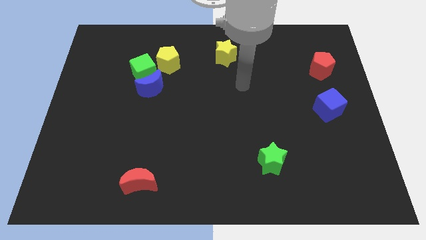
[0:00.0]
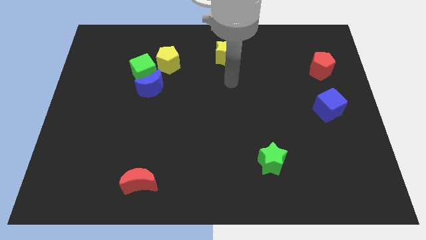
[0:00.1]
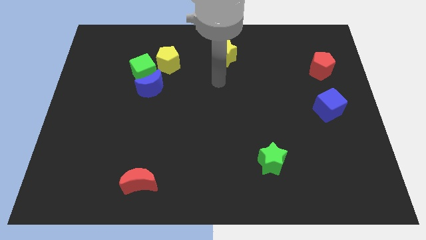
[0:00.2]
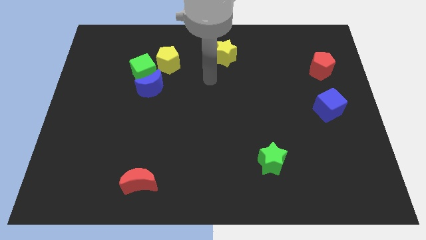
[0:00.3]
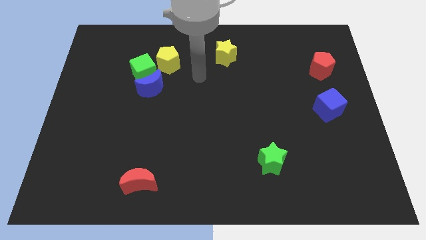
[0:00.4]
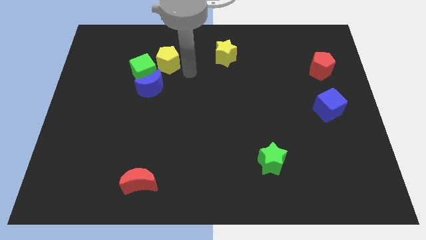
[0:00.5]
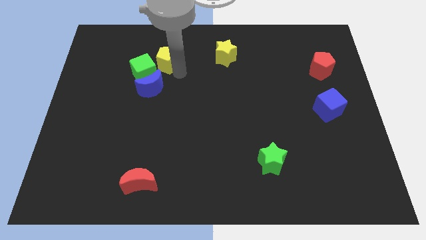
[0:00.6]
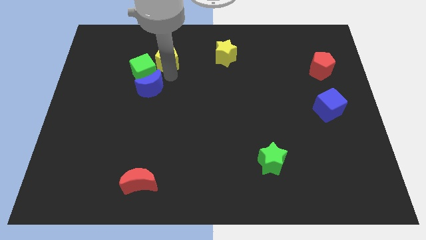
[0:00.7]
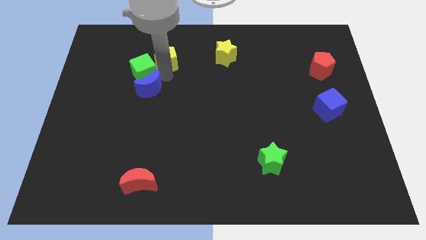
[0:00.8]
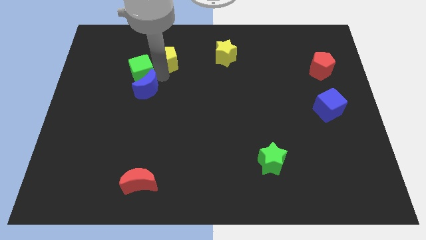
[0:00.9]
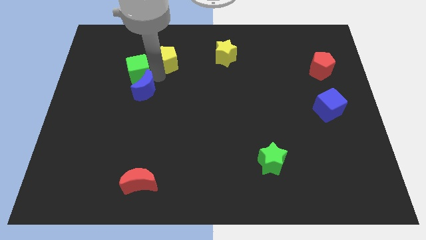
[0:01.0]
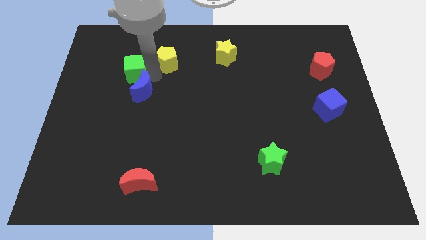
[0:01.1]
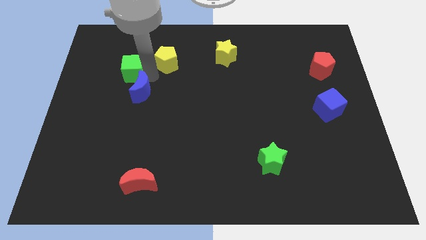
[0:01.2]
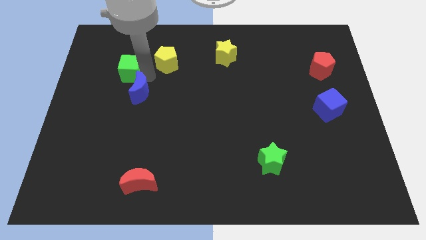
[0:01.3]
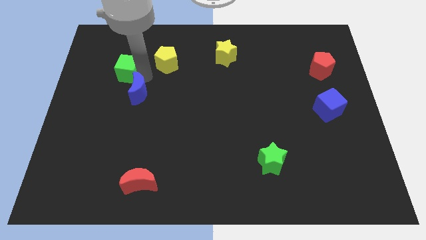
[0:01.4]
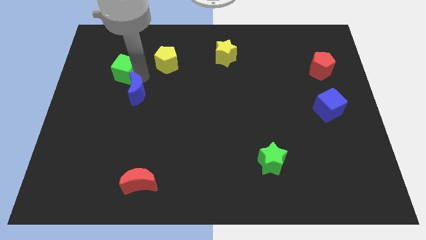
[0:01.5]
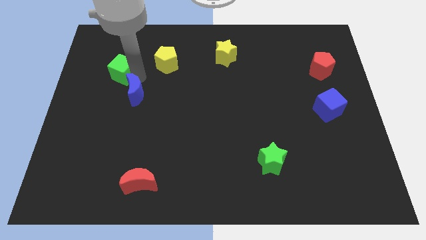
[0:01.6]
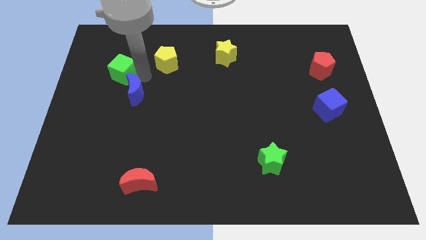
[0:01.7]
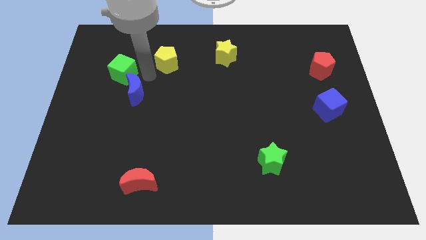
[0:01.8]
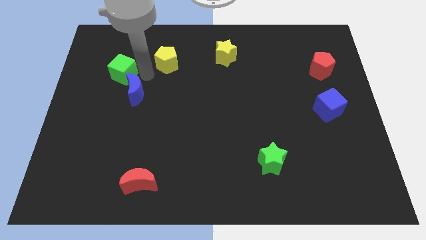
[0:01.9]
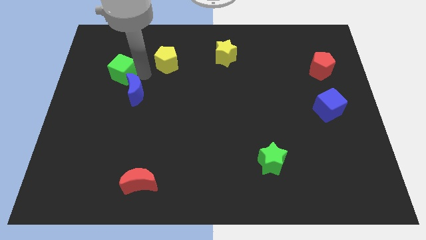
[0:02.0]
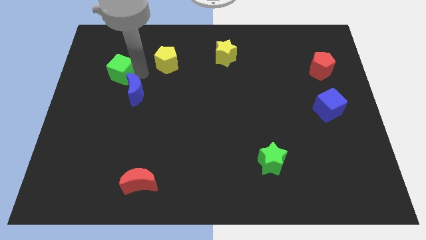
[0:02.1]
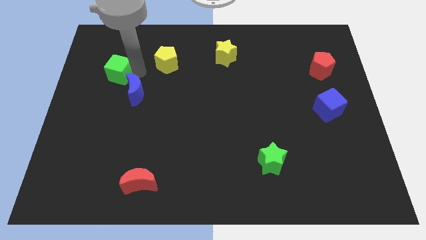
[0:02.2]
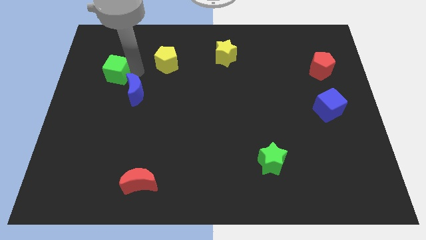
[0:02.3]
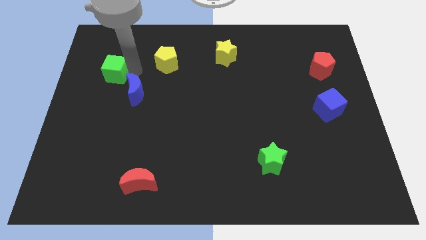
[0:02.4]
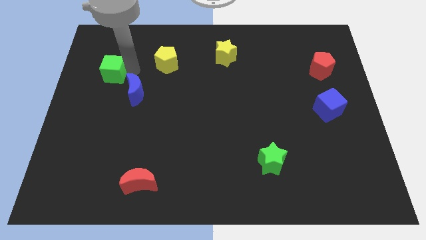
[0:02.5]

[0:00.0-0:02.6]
pull the green cube apart from the blue moon and yellow pentagon

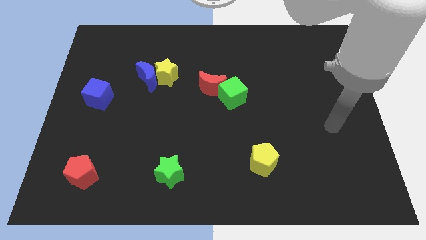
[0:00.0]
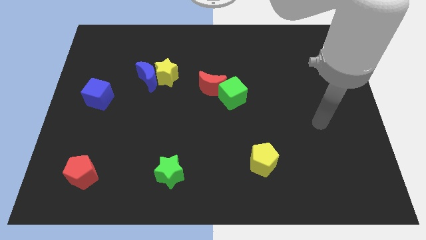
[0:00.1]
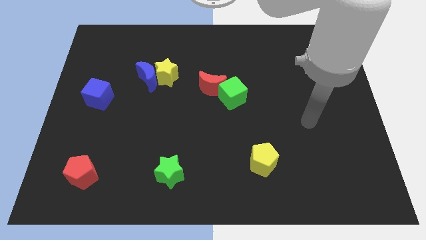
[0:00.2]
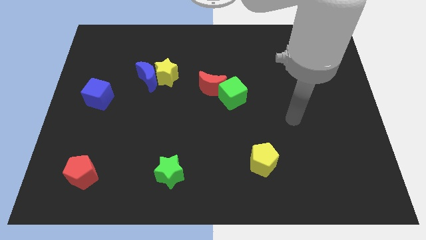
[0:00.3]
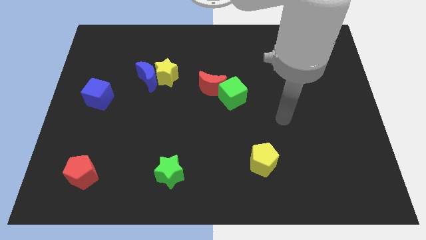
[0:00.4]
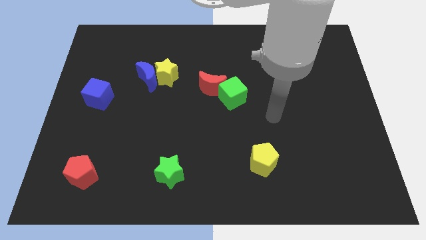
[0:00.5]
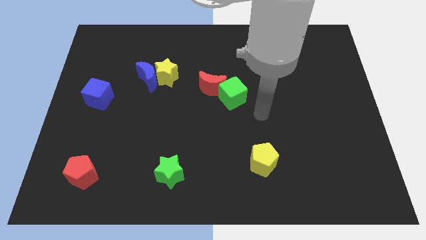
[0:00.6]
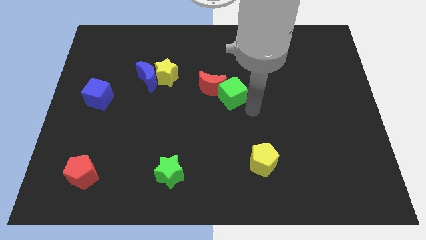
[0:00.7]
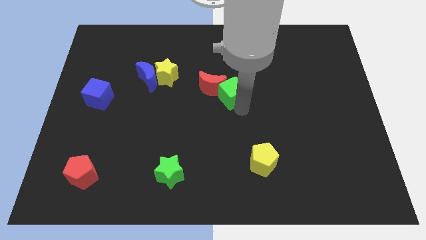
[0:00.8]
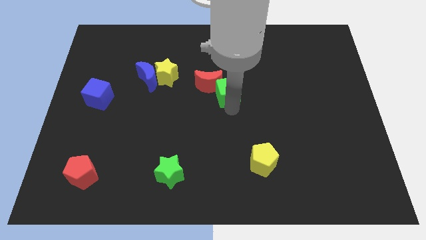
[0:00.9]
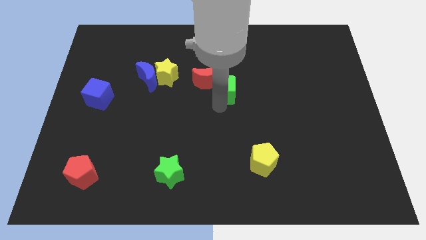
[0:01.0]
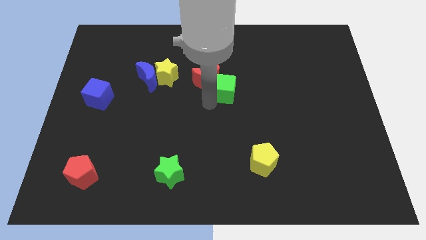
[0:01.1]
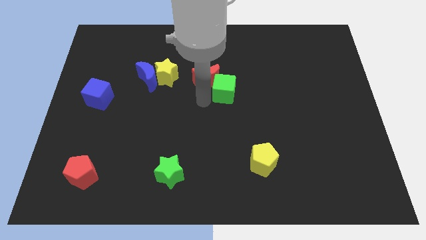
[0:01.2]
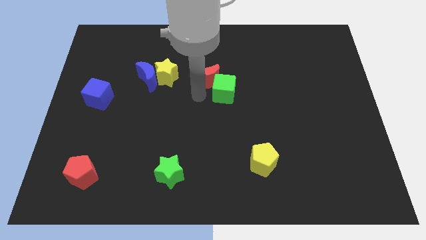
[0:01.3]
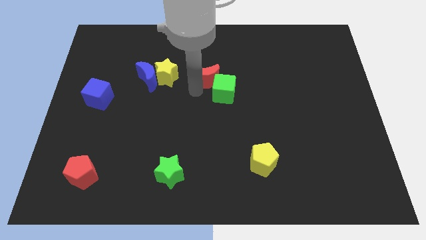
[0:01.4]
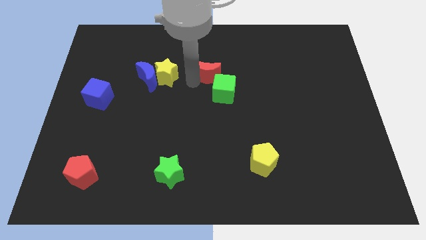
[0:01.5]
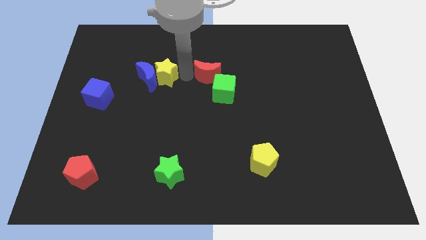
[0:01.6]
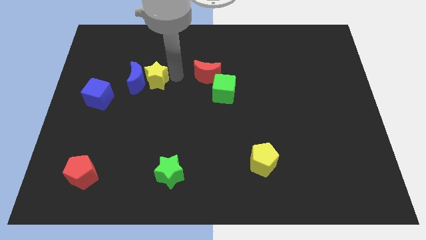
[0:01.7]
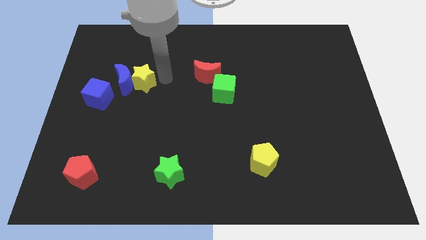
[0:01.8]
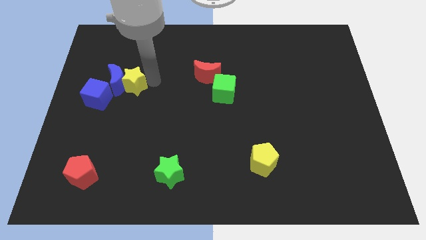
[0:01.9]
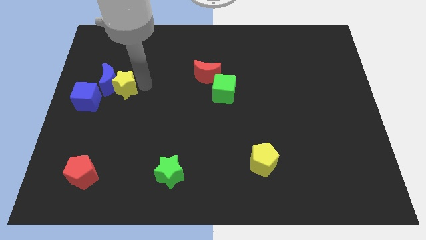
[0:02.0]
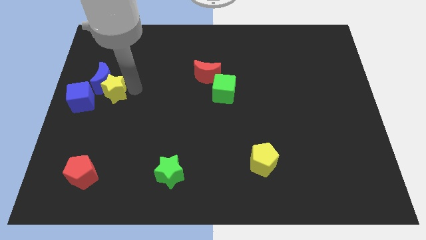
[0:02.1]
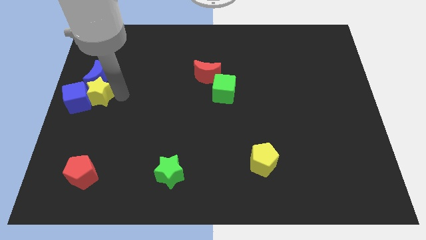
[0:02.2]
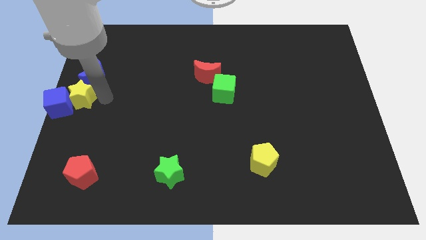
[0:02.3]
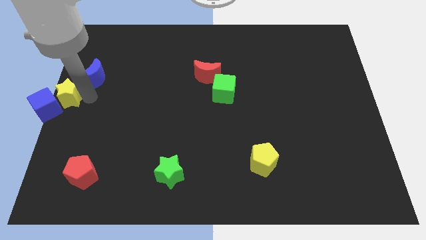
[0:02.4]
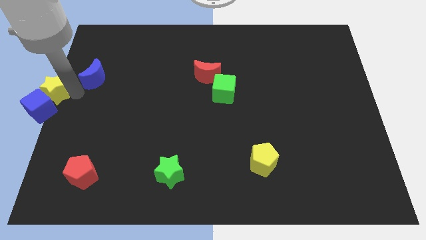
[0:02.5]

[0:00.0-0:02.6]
separate the blue moon from the yellow star

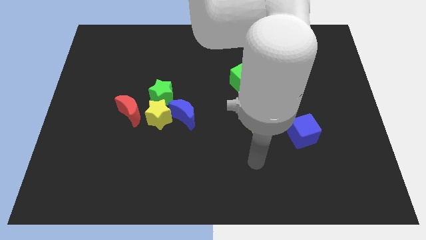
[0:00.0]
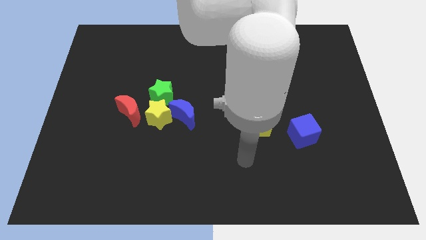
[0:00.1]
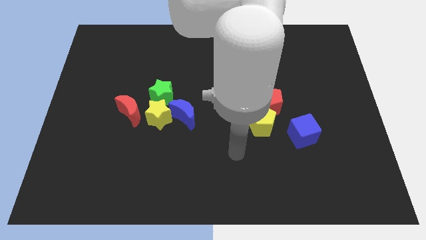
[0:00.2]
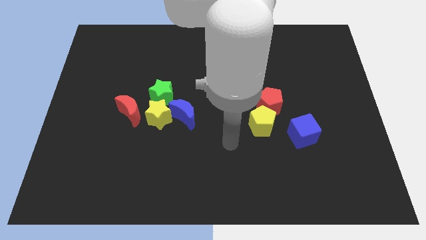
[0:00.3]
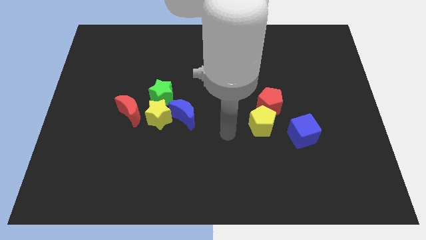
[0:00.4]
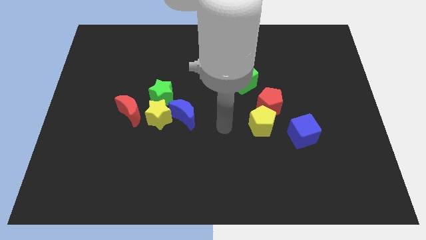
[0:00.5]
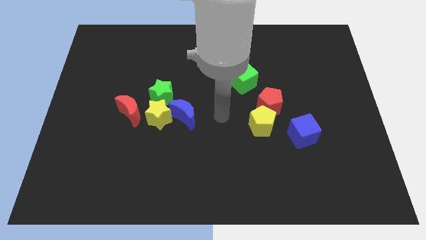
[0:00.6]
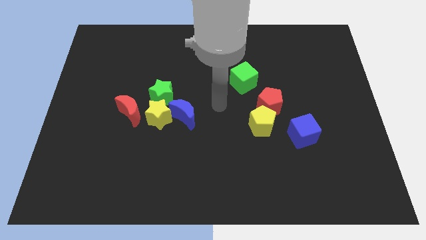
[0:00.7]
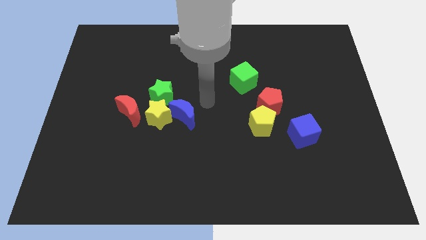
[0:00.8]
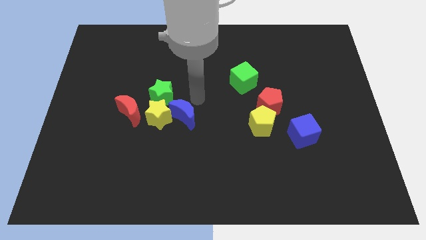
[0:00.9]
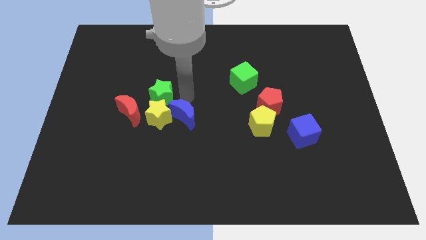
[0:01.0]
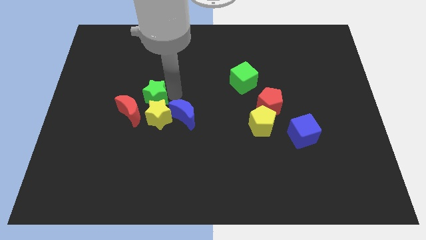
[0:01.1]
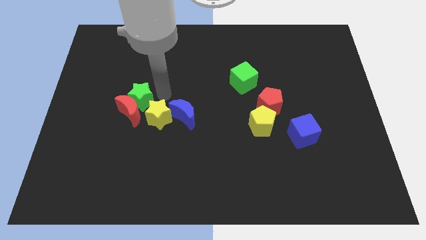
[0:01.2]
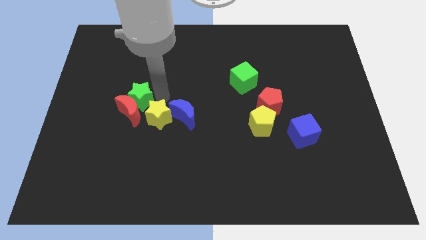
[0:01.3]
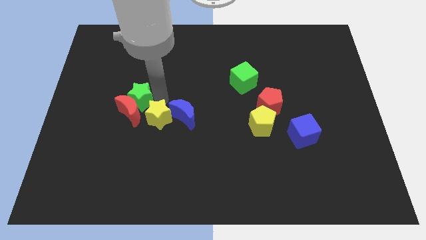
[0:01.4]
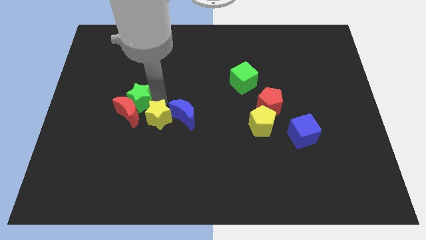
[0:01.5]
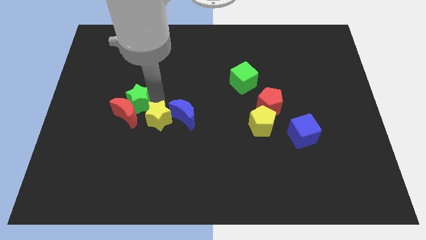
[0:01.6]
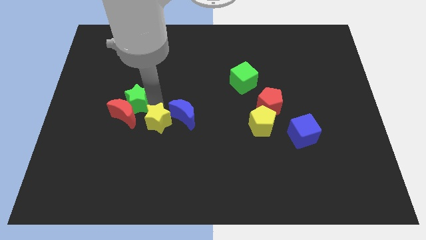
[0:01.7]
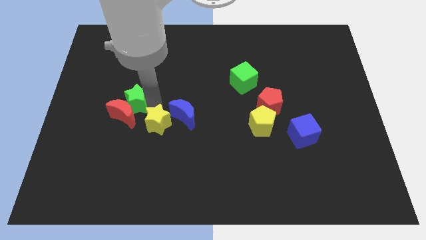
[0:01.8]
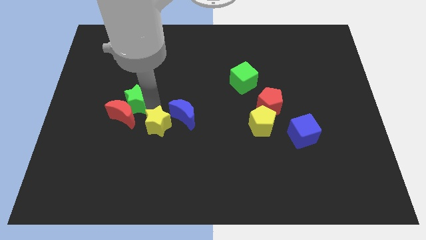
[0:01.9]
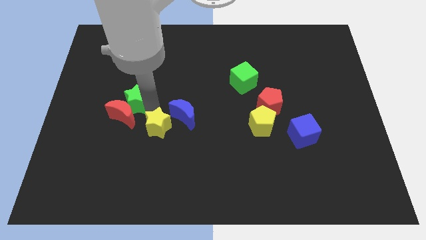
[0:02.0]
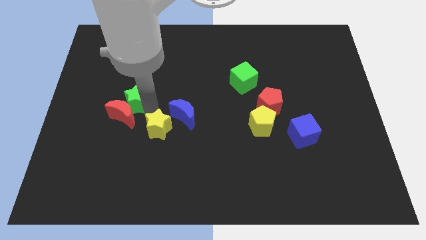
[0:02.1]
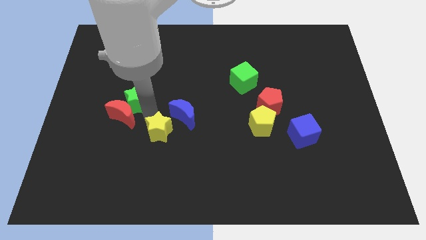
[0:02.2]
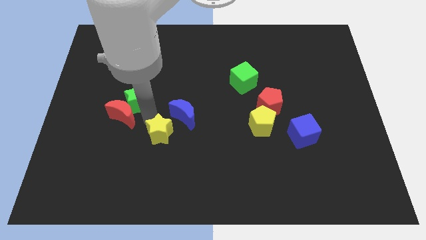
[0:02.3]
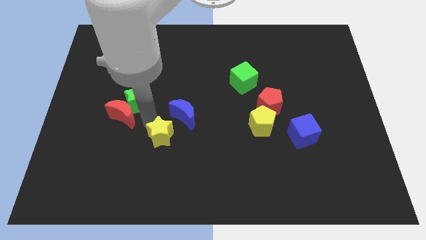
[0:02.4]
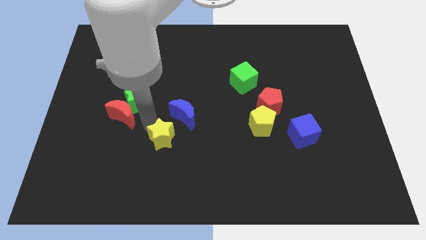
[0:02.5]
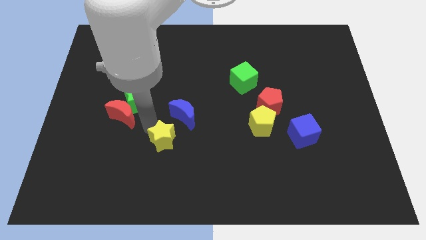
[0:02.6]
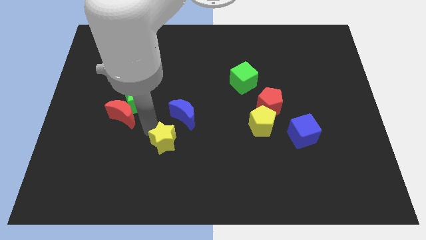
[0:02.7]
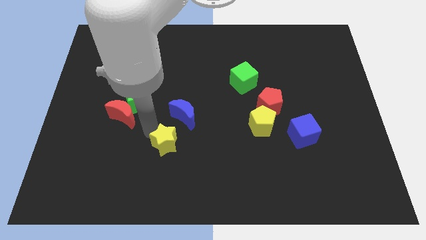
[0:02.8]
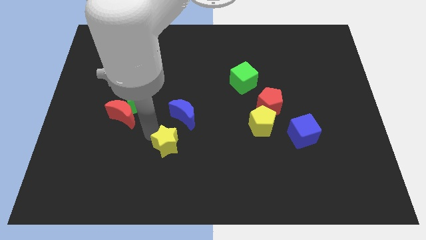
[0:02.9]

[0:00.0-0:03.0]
separate the yellow star from the group of blocks

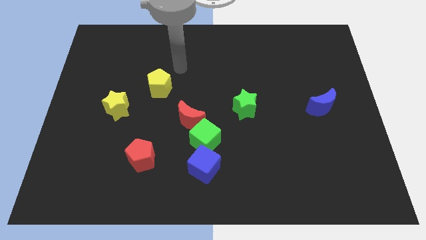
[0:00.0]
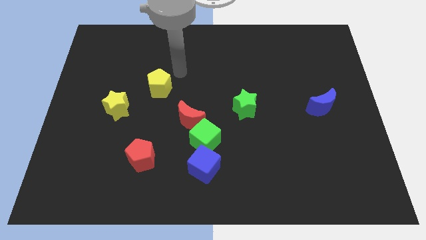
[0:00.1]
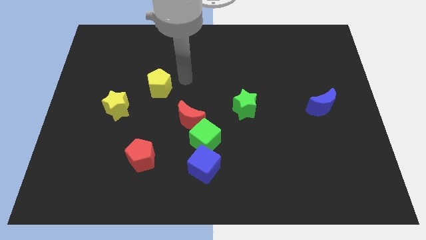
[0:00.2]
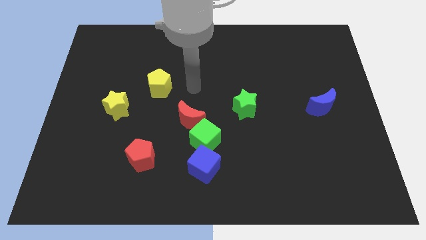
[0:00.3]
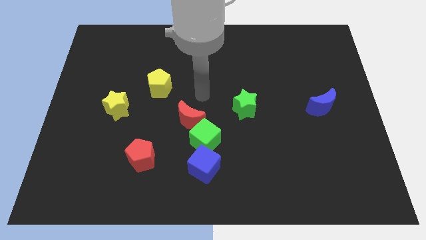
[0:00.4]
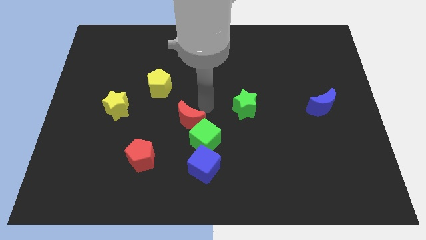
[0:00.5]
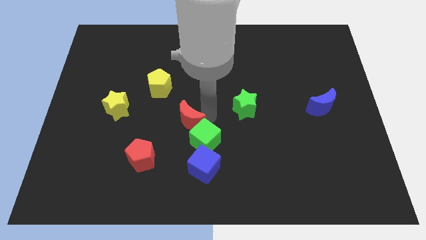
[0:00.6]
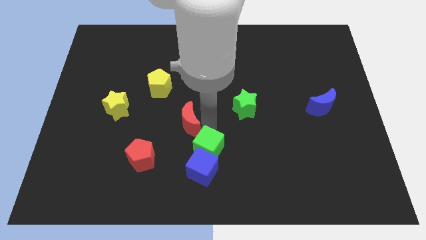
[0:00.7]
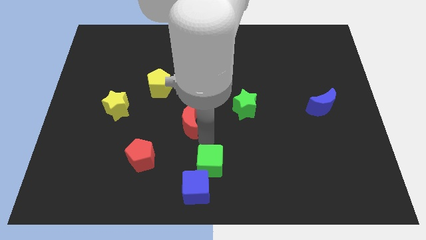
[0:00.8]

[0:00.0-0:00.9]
move the red moon away from the green cube

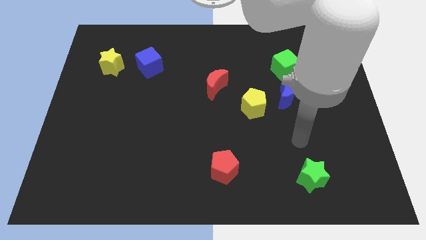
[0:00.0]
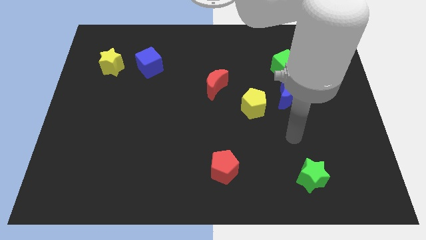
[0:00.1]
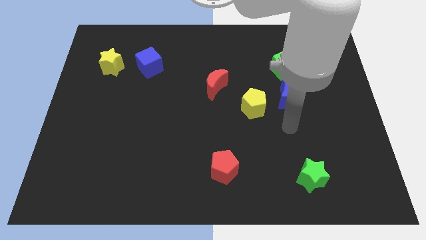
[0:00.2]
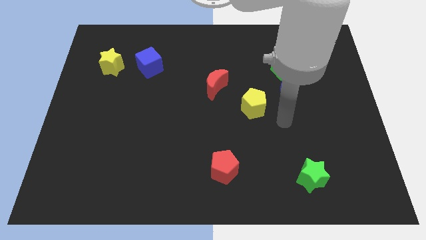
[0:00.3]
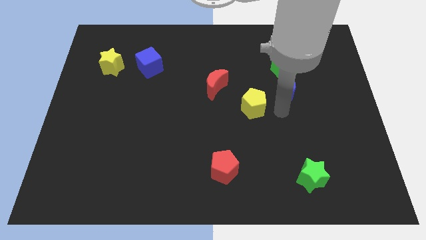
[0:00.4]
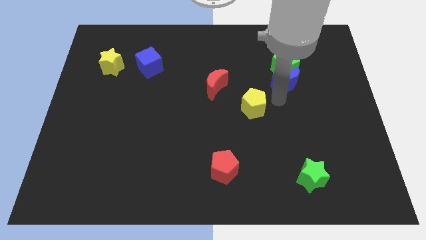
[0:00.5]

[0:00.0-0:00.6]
move the yellow pentagon away from the blue moon
